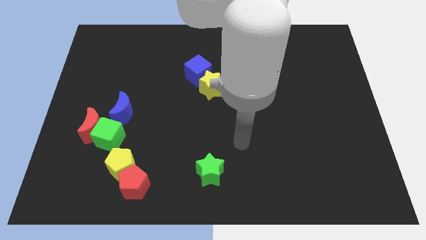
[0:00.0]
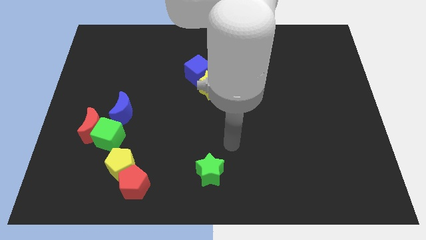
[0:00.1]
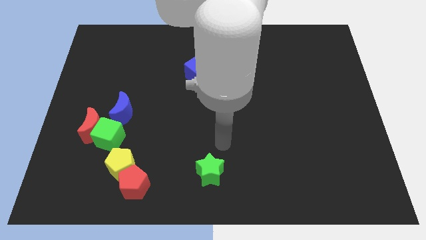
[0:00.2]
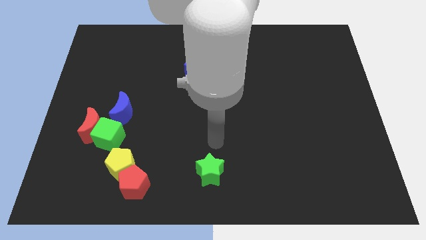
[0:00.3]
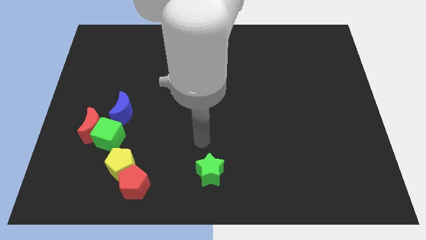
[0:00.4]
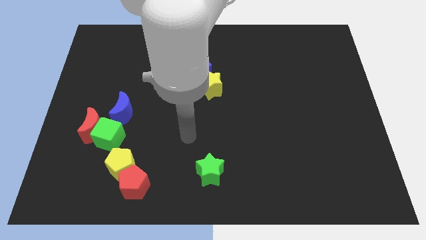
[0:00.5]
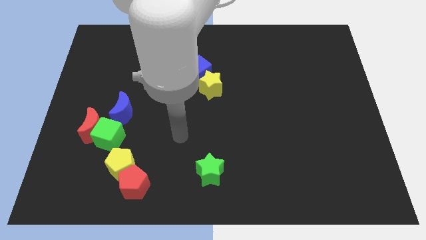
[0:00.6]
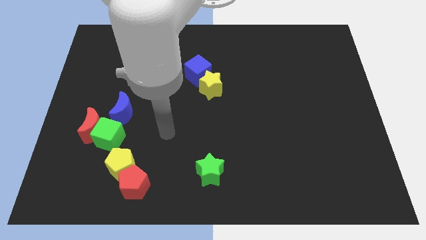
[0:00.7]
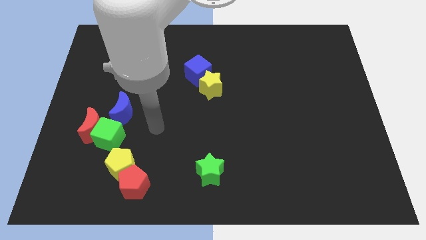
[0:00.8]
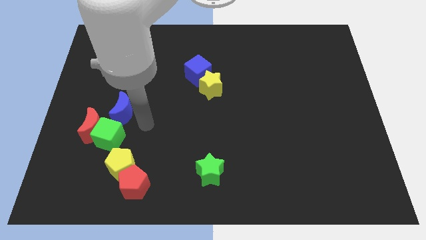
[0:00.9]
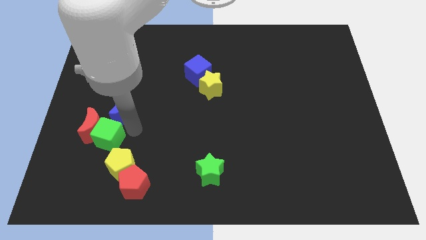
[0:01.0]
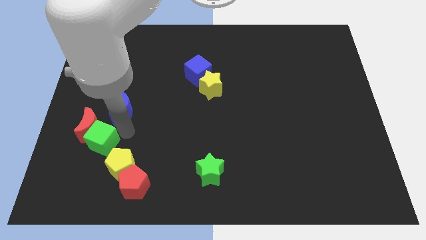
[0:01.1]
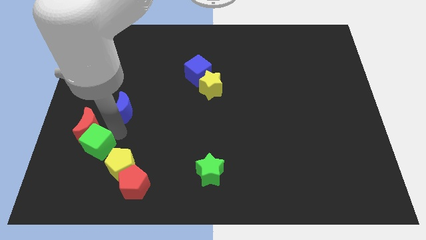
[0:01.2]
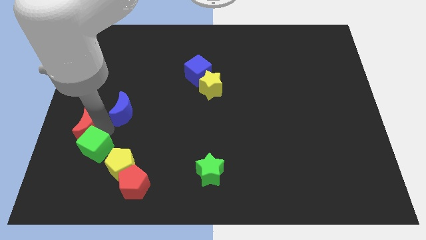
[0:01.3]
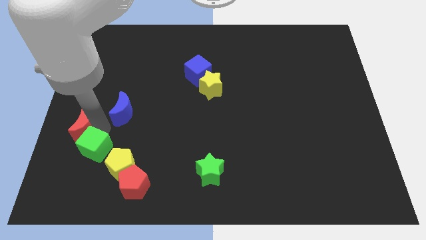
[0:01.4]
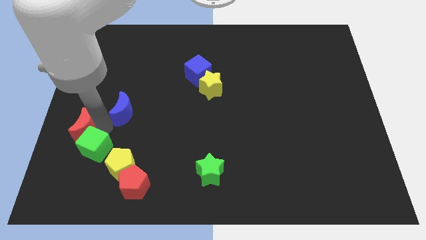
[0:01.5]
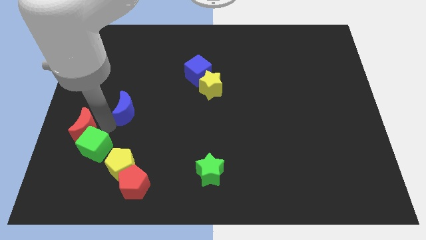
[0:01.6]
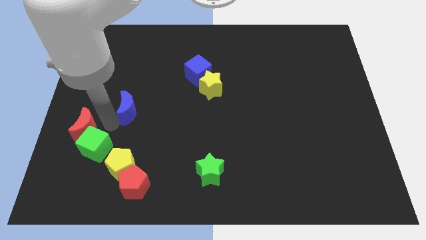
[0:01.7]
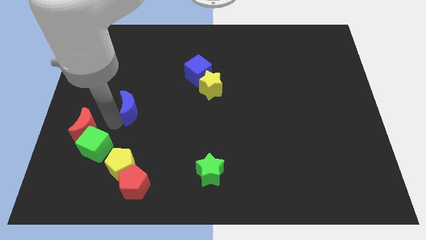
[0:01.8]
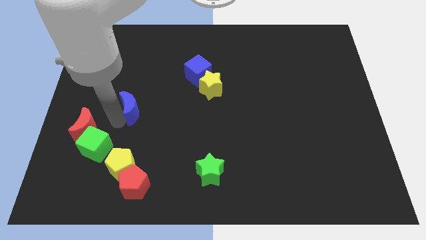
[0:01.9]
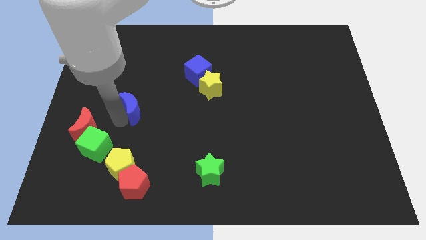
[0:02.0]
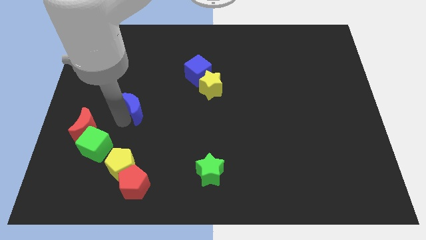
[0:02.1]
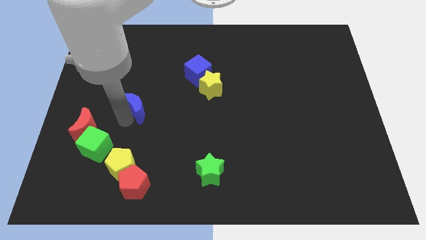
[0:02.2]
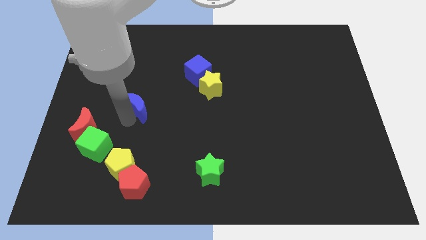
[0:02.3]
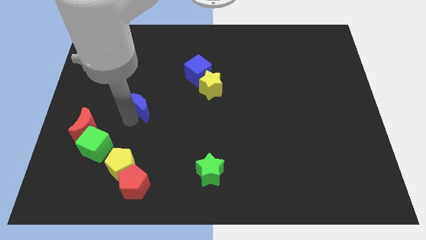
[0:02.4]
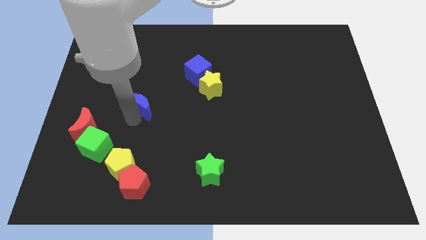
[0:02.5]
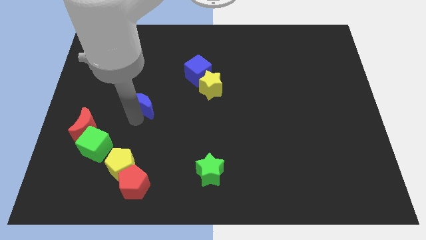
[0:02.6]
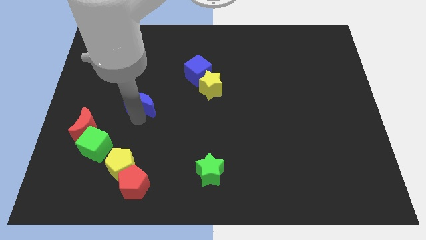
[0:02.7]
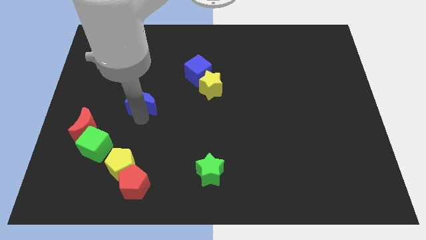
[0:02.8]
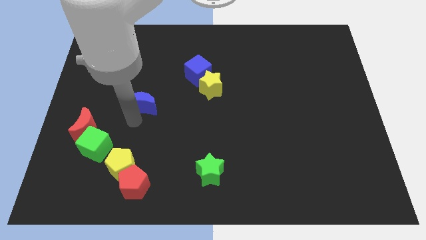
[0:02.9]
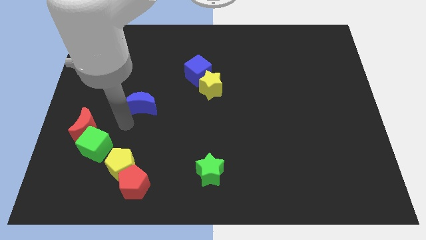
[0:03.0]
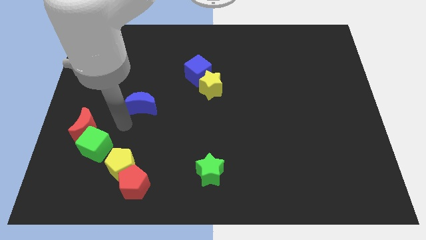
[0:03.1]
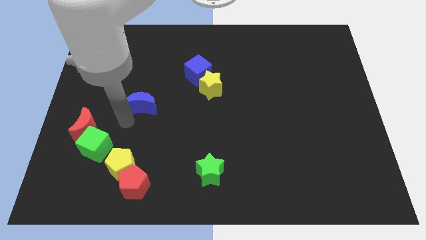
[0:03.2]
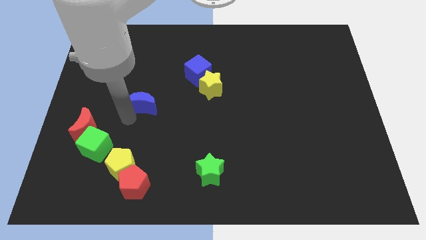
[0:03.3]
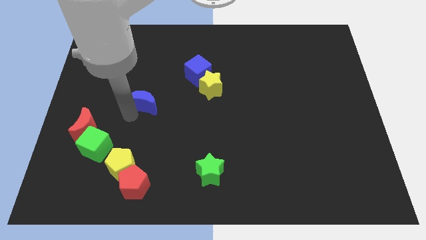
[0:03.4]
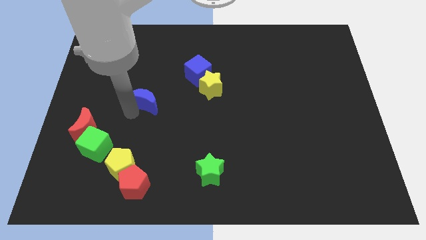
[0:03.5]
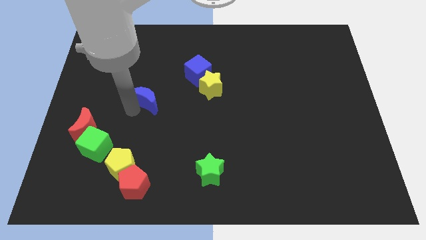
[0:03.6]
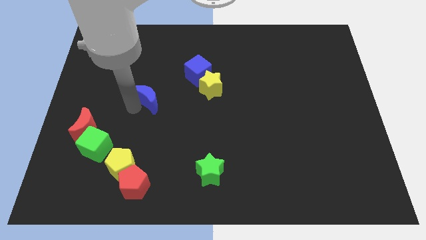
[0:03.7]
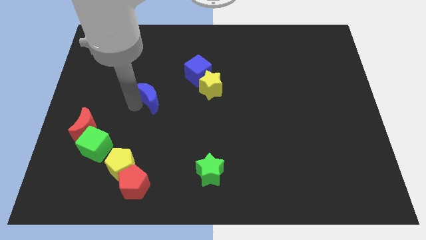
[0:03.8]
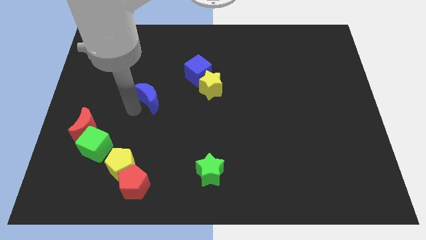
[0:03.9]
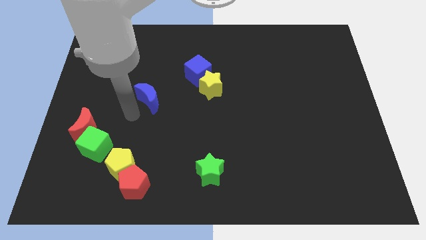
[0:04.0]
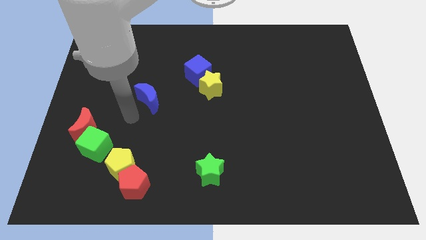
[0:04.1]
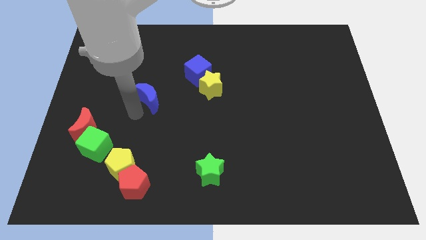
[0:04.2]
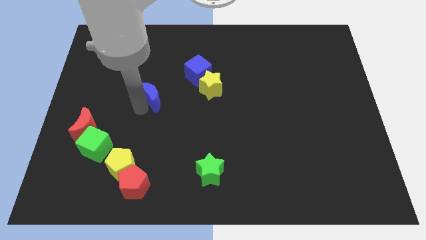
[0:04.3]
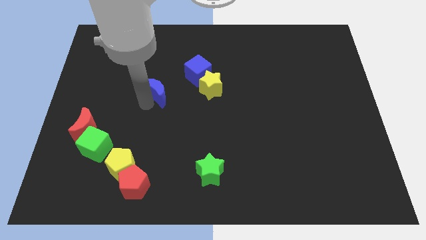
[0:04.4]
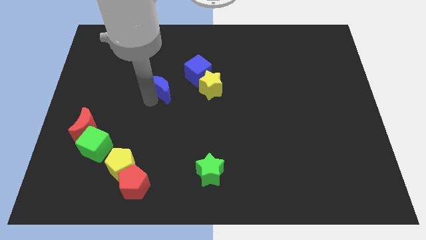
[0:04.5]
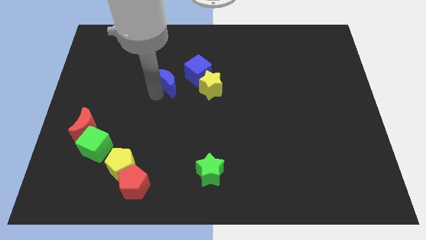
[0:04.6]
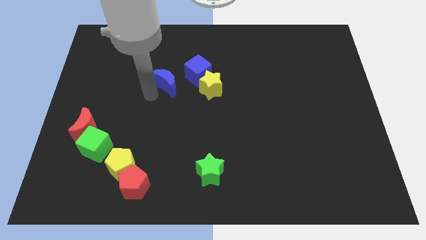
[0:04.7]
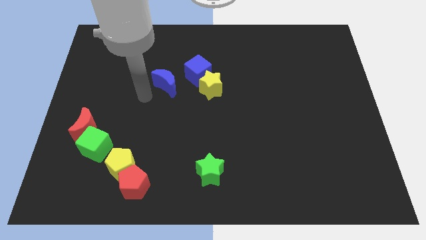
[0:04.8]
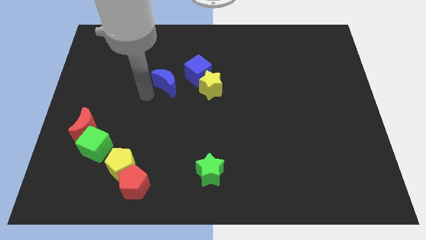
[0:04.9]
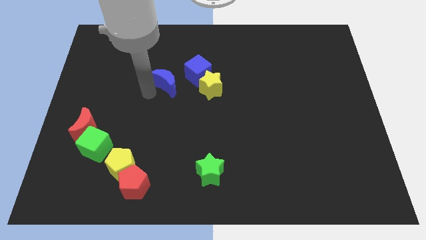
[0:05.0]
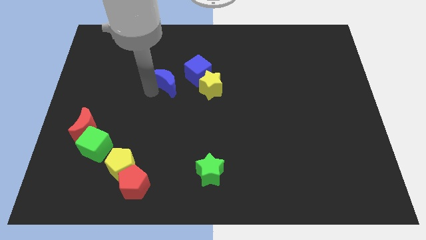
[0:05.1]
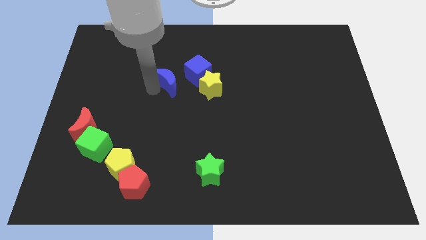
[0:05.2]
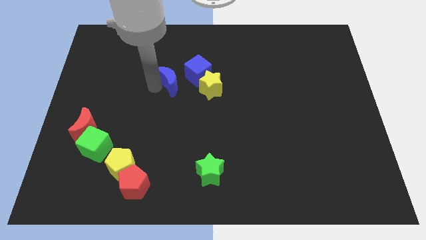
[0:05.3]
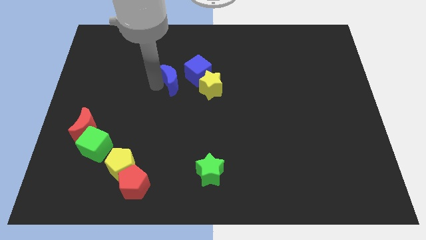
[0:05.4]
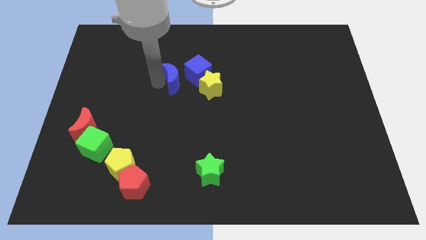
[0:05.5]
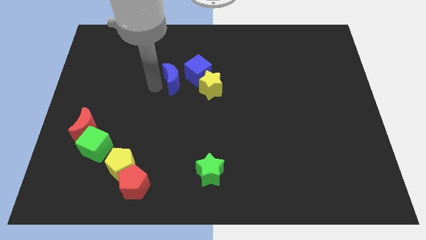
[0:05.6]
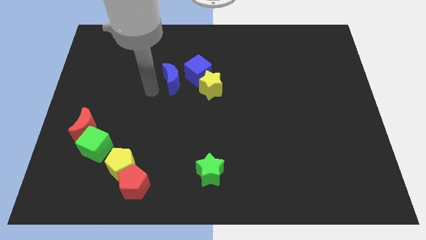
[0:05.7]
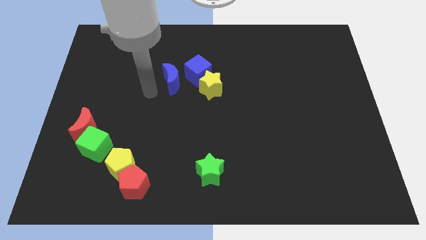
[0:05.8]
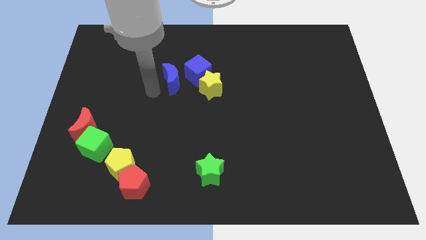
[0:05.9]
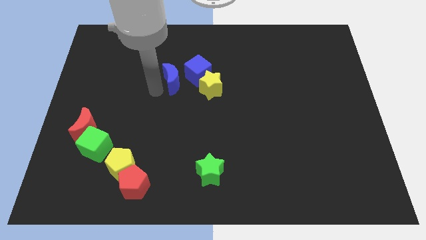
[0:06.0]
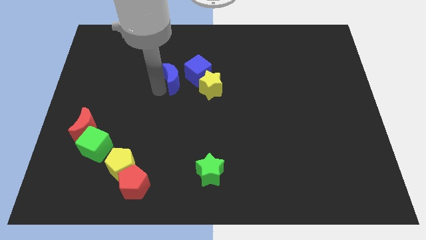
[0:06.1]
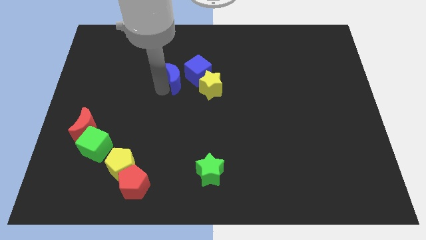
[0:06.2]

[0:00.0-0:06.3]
put the blue moon diagonally up and to the left of the yellow star
